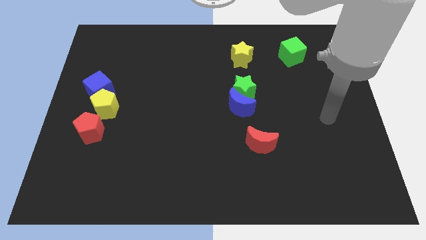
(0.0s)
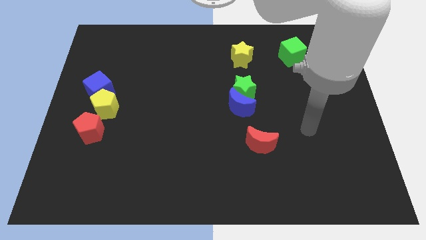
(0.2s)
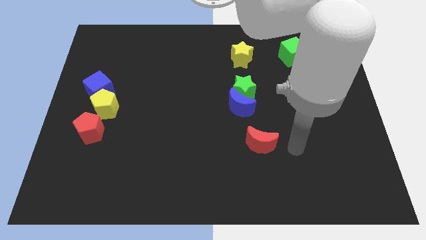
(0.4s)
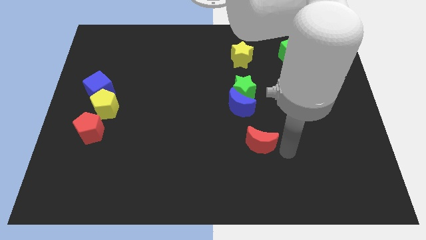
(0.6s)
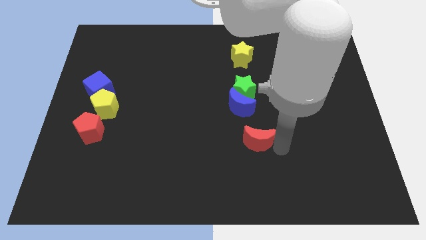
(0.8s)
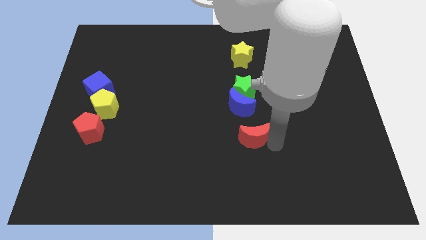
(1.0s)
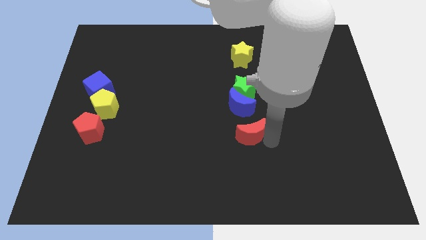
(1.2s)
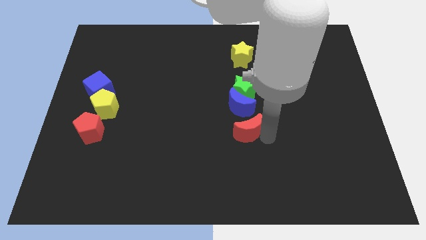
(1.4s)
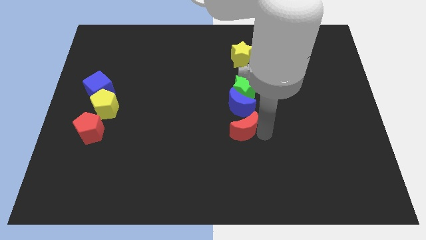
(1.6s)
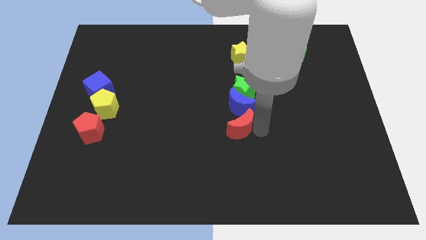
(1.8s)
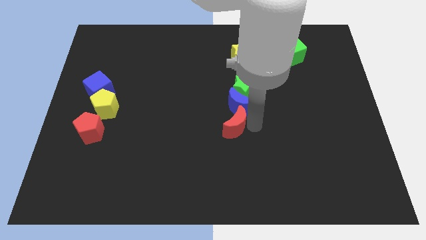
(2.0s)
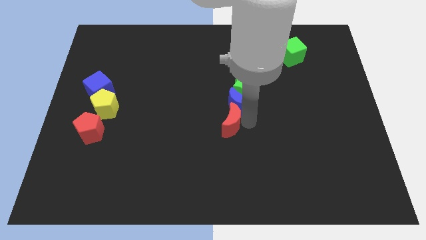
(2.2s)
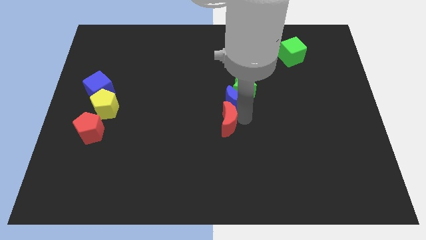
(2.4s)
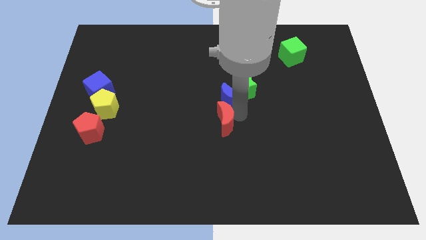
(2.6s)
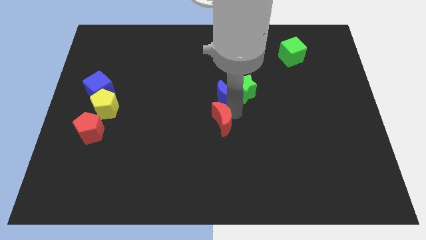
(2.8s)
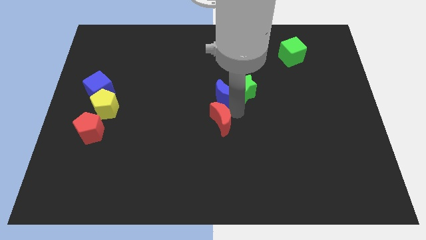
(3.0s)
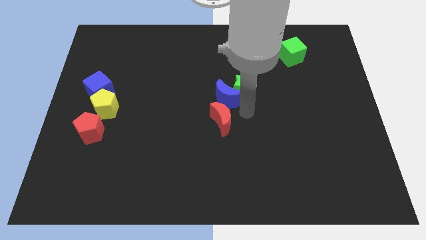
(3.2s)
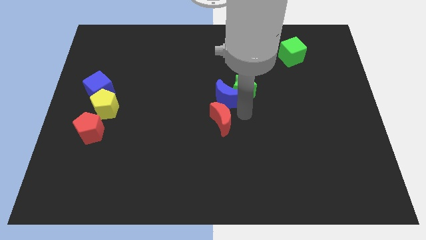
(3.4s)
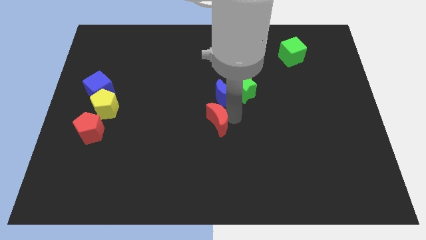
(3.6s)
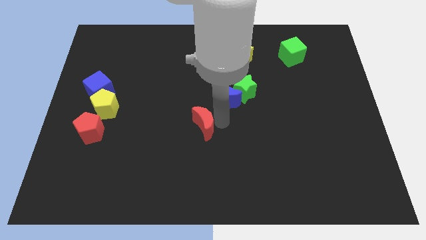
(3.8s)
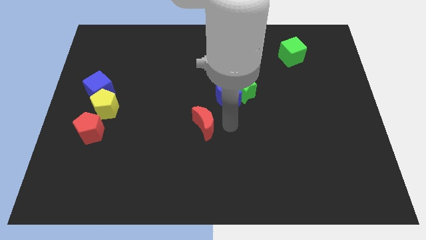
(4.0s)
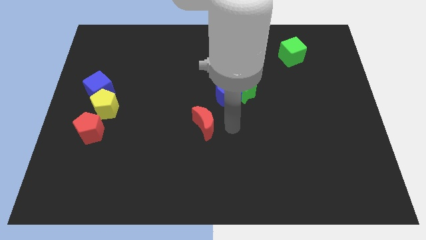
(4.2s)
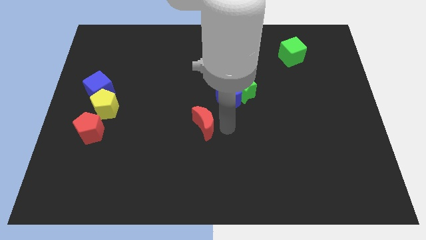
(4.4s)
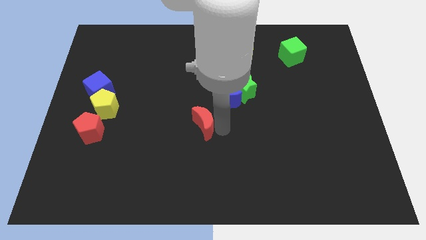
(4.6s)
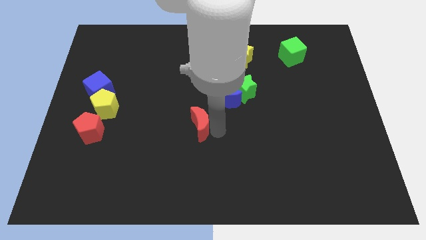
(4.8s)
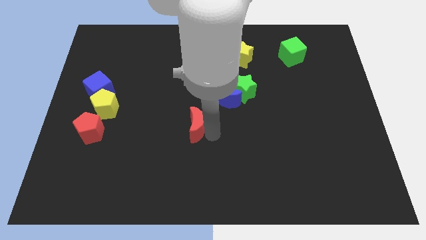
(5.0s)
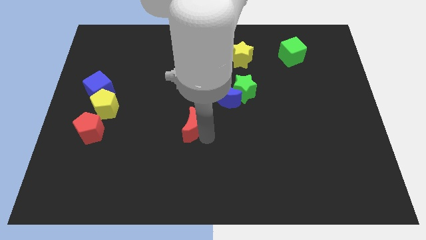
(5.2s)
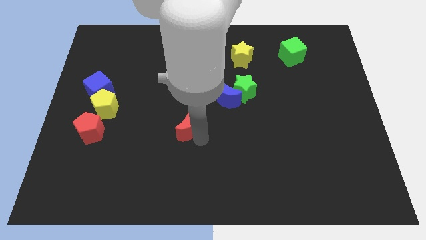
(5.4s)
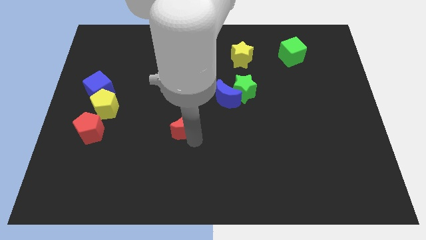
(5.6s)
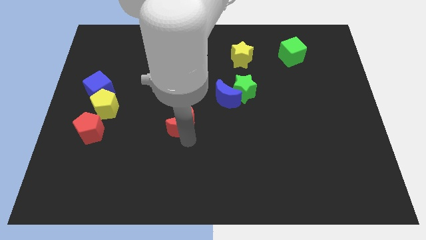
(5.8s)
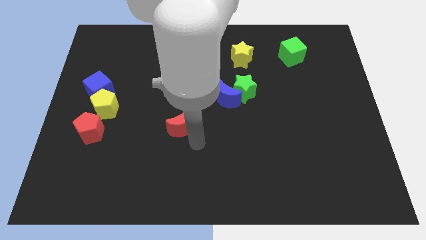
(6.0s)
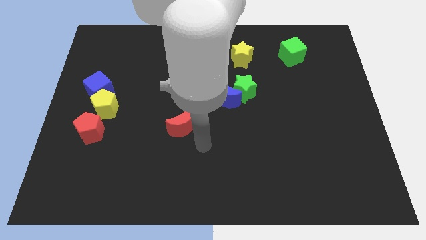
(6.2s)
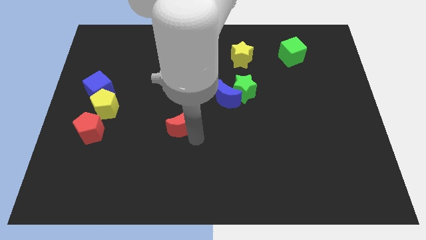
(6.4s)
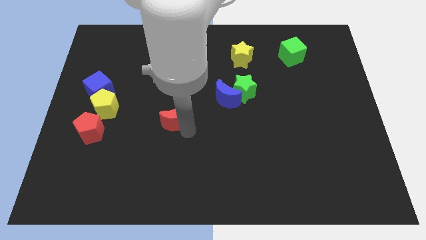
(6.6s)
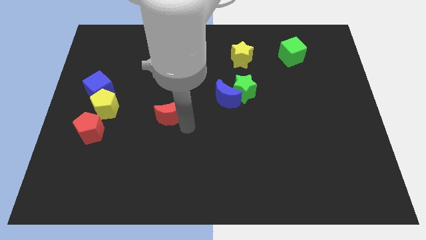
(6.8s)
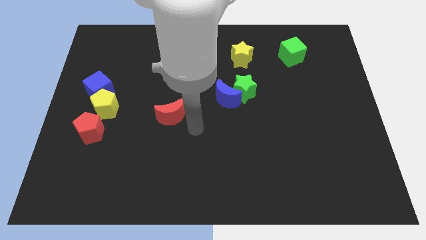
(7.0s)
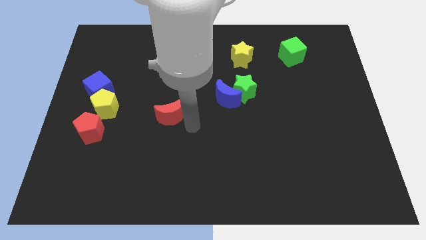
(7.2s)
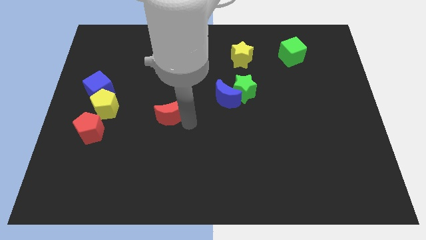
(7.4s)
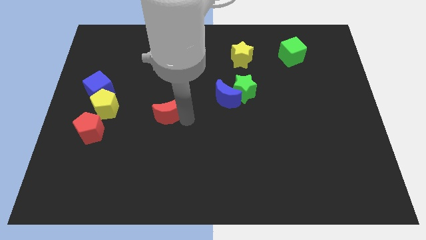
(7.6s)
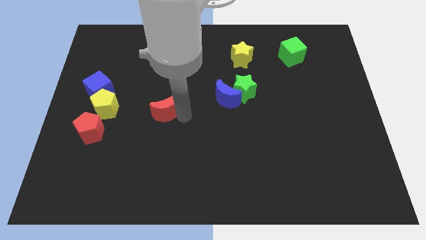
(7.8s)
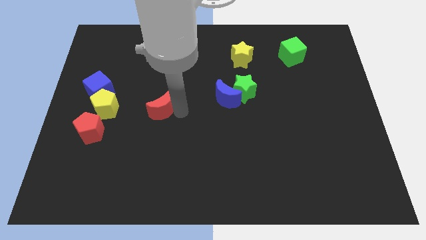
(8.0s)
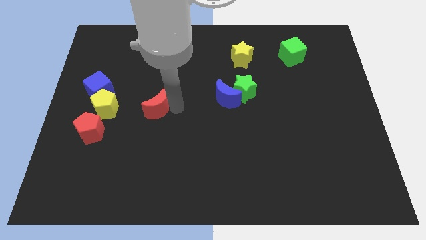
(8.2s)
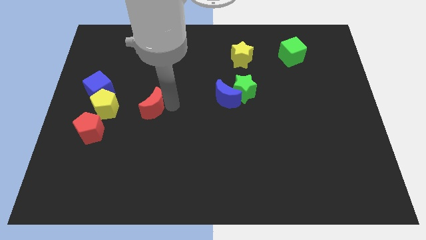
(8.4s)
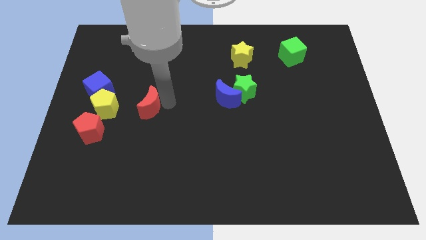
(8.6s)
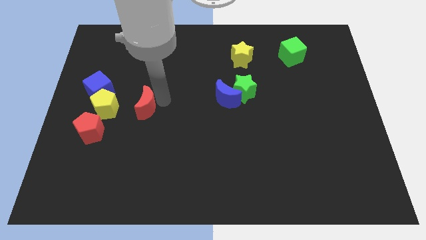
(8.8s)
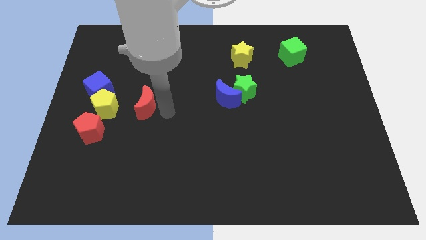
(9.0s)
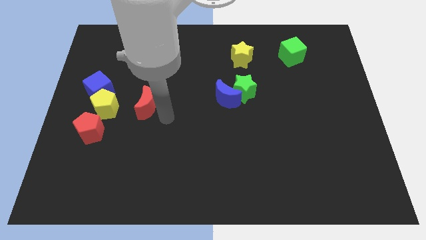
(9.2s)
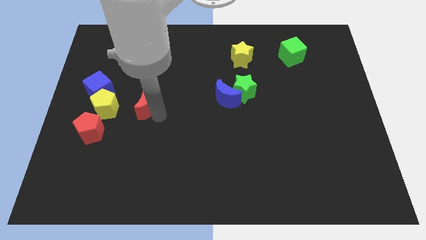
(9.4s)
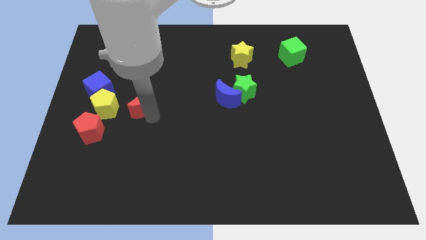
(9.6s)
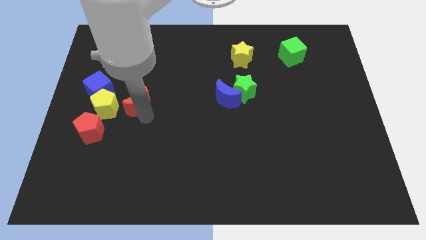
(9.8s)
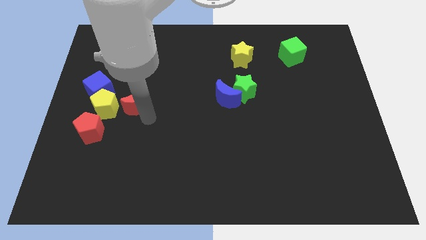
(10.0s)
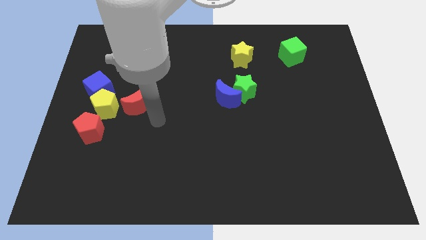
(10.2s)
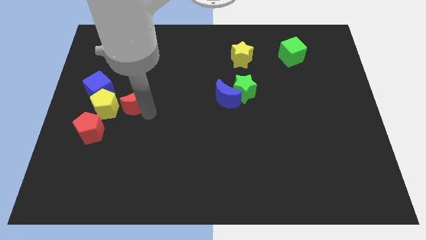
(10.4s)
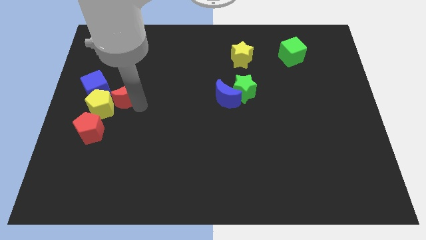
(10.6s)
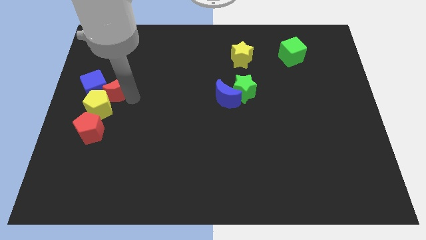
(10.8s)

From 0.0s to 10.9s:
move the red moon to the blue cube

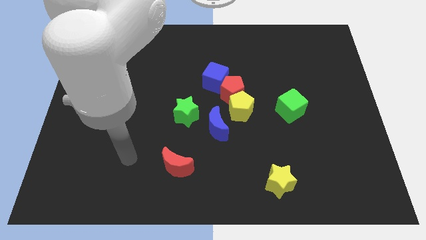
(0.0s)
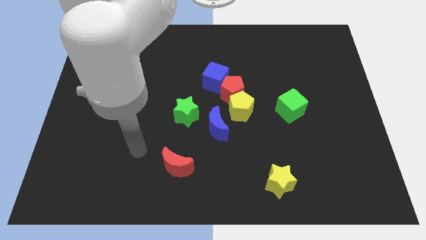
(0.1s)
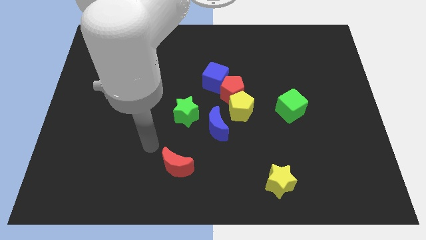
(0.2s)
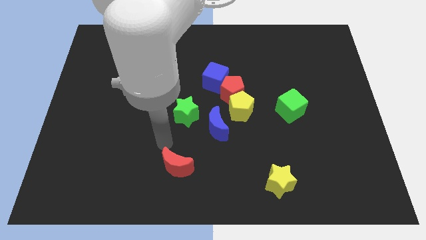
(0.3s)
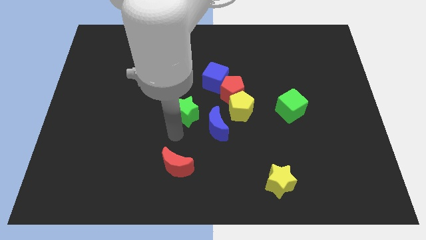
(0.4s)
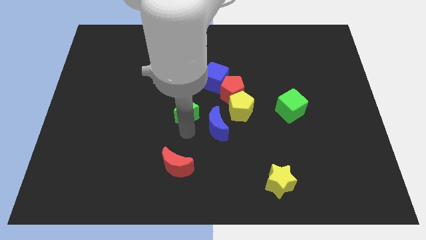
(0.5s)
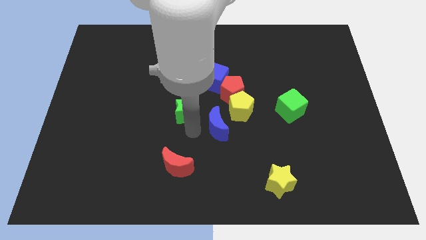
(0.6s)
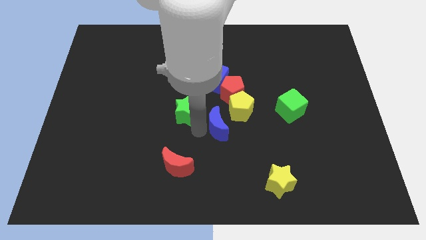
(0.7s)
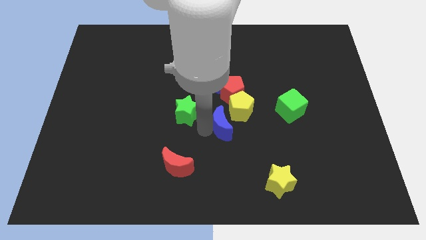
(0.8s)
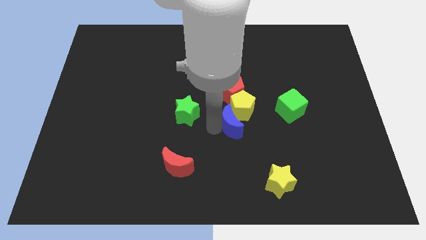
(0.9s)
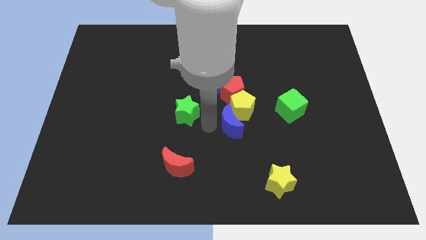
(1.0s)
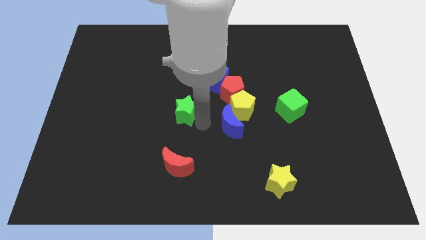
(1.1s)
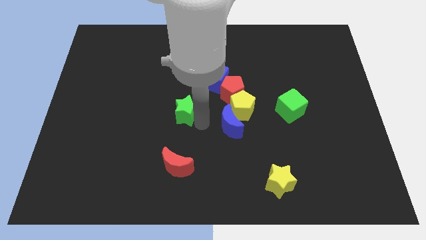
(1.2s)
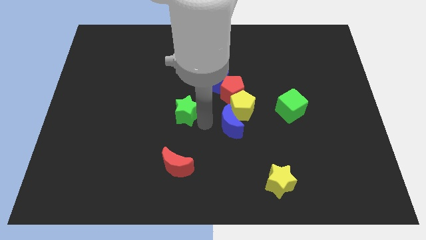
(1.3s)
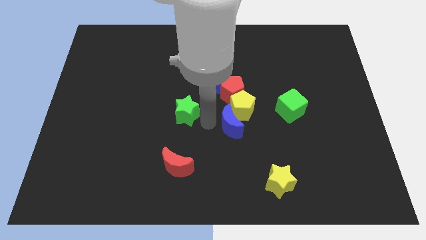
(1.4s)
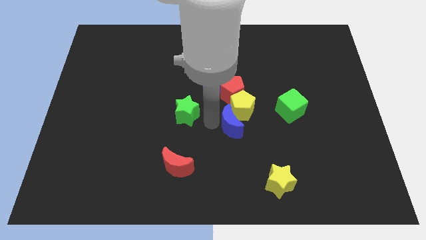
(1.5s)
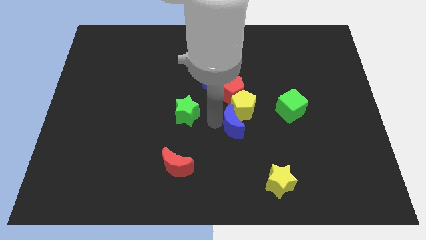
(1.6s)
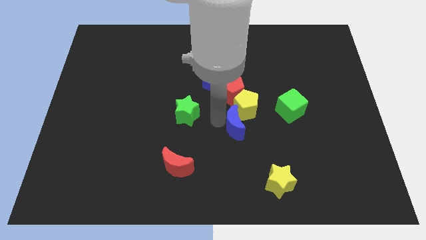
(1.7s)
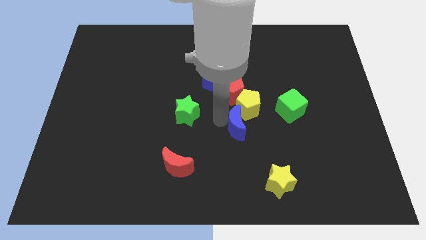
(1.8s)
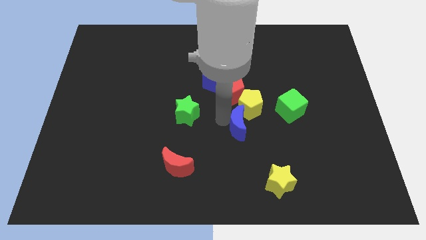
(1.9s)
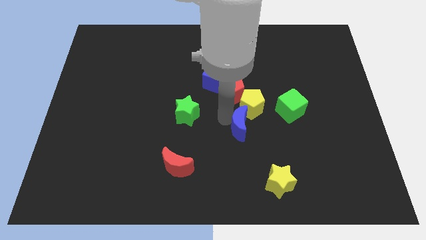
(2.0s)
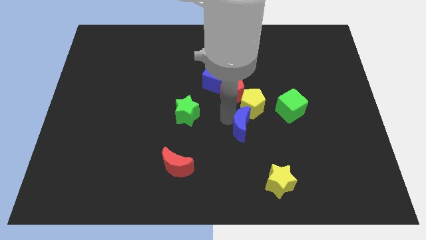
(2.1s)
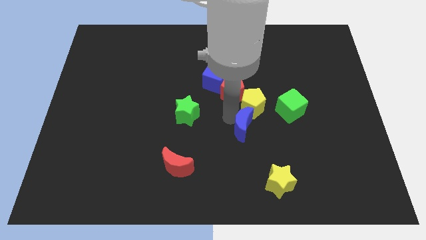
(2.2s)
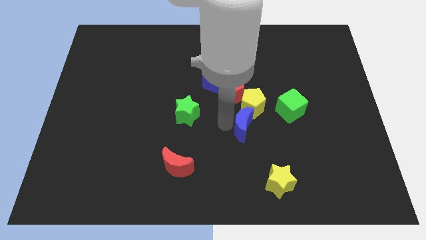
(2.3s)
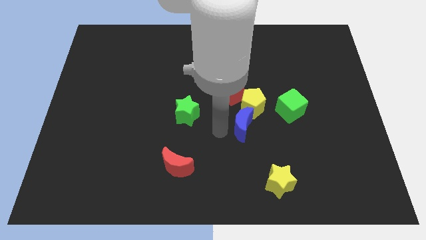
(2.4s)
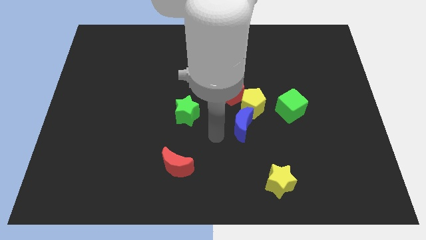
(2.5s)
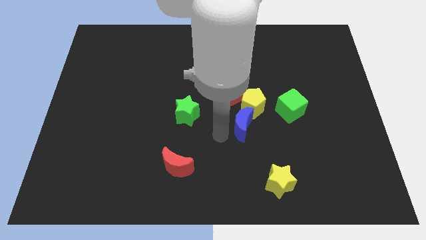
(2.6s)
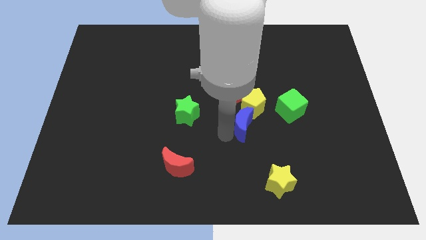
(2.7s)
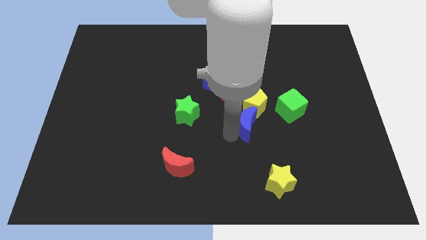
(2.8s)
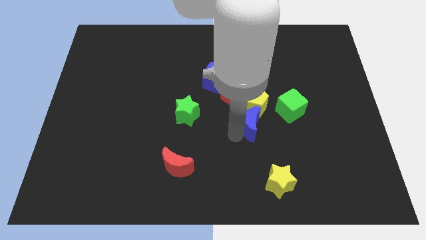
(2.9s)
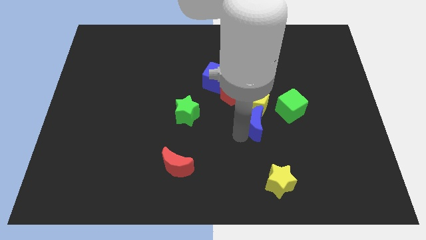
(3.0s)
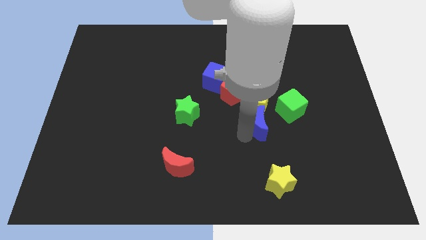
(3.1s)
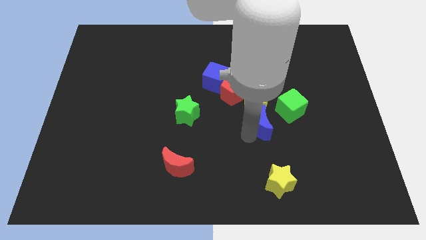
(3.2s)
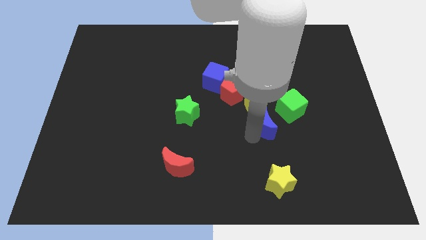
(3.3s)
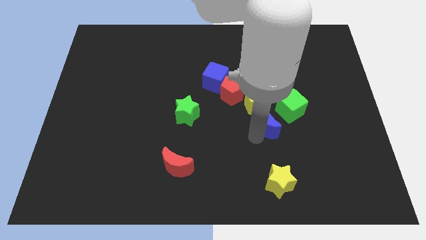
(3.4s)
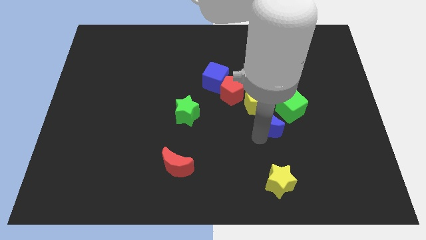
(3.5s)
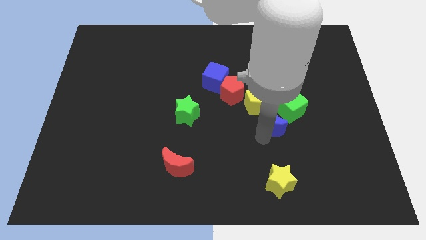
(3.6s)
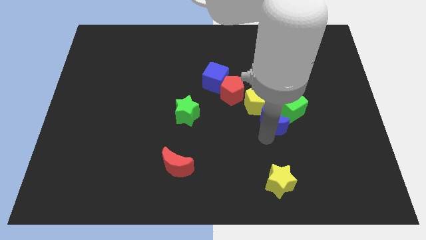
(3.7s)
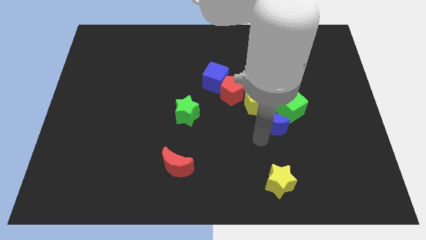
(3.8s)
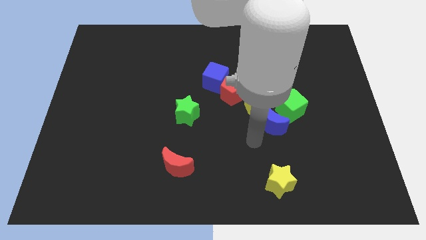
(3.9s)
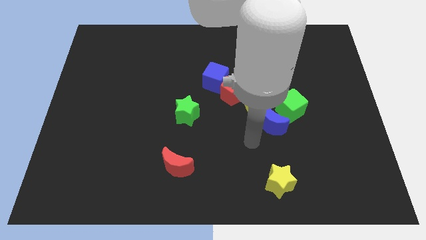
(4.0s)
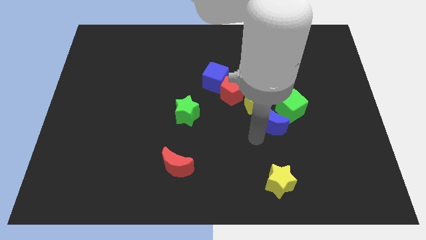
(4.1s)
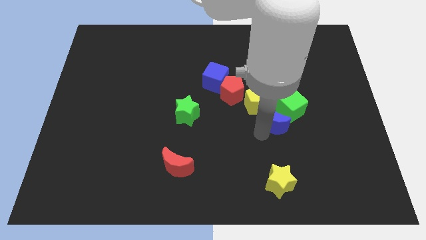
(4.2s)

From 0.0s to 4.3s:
push the blue moon to the green cube
